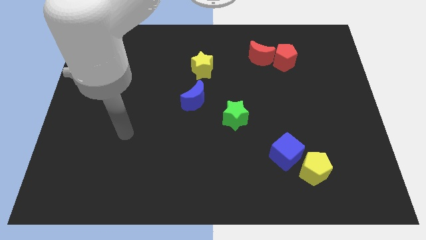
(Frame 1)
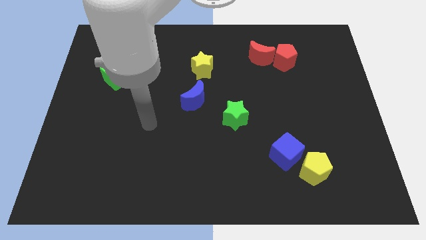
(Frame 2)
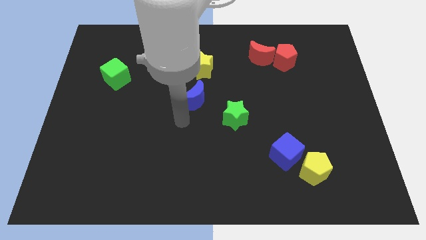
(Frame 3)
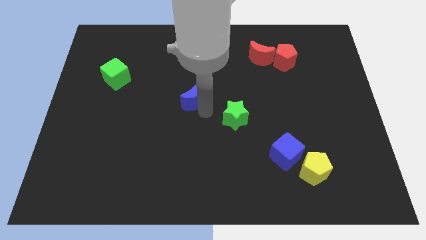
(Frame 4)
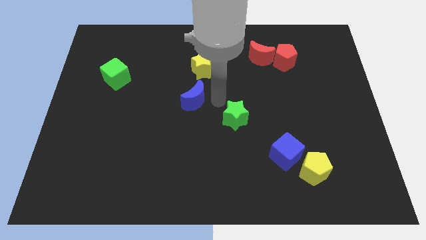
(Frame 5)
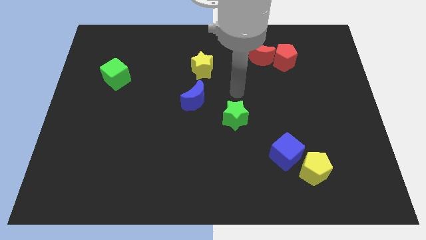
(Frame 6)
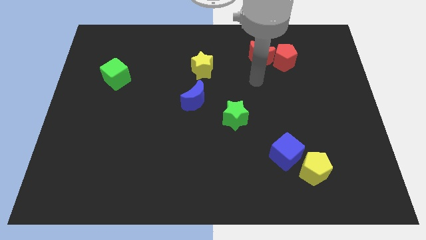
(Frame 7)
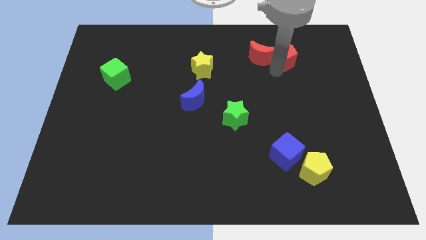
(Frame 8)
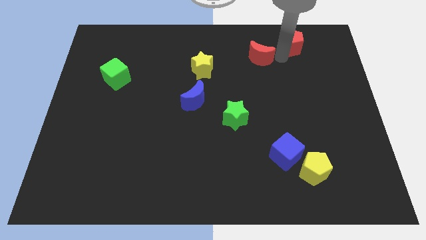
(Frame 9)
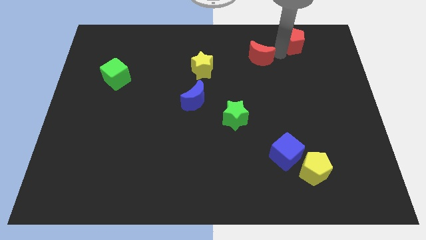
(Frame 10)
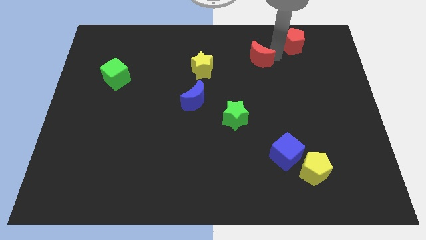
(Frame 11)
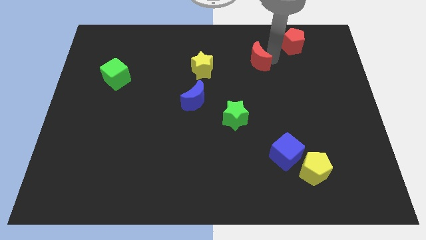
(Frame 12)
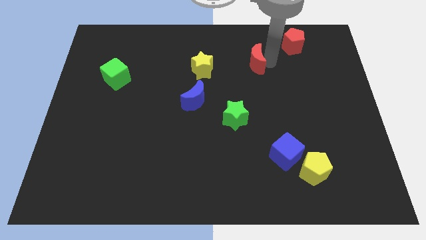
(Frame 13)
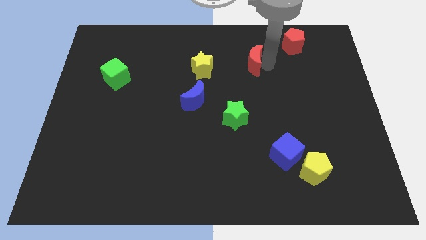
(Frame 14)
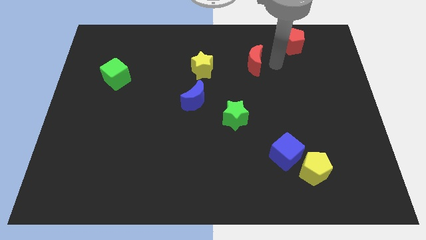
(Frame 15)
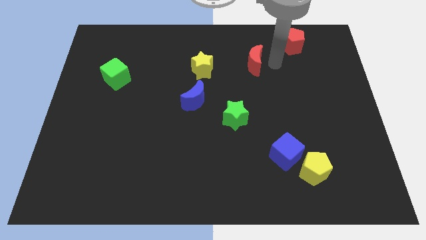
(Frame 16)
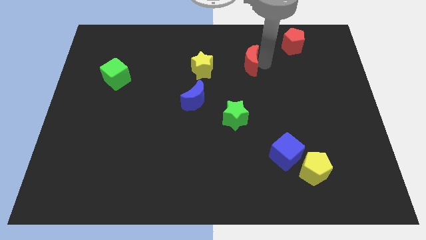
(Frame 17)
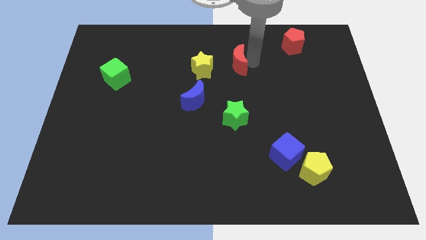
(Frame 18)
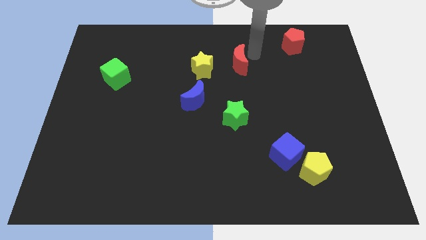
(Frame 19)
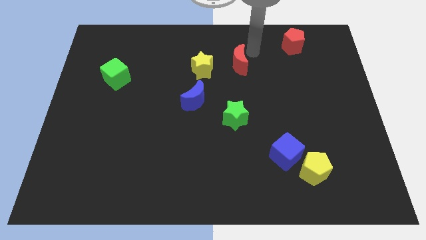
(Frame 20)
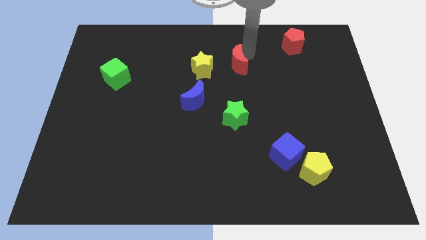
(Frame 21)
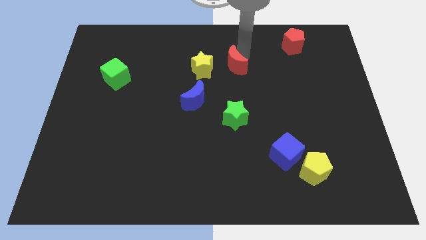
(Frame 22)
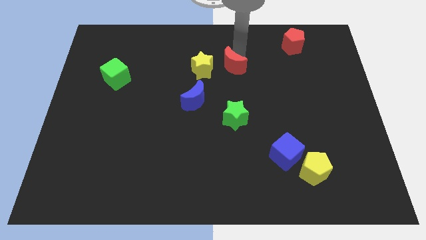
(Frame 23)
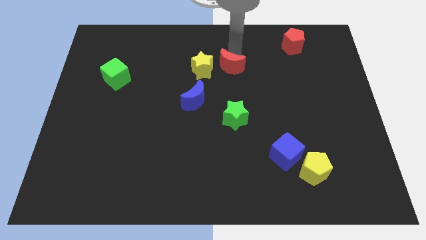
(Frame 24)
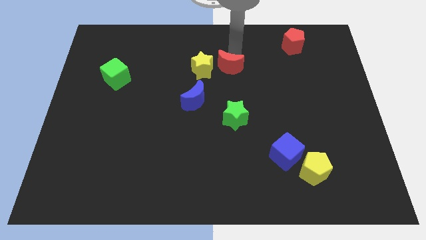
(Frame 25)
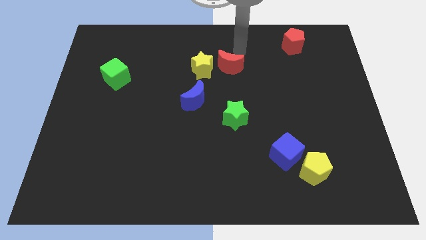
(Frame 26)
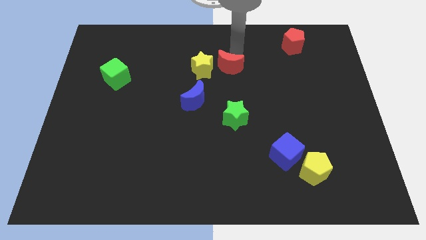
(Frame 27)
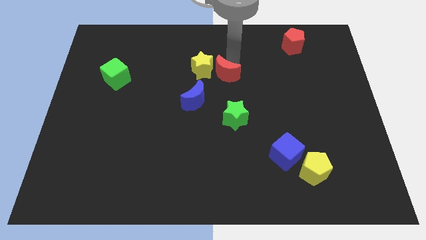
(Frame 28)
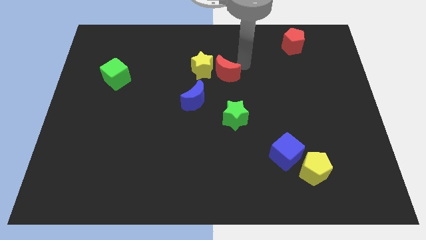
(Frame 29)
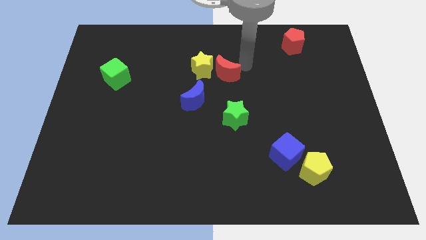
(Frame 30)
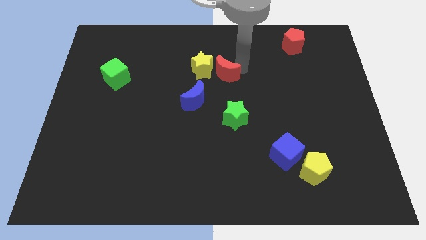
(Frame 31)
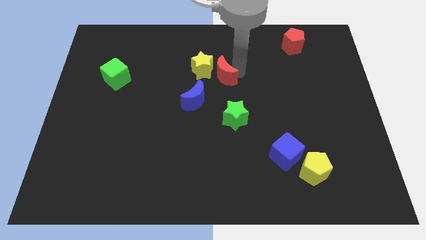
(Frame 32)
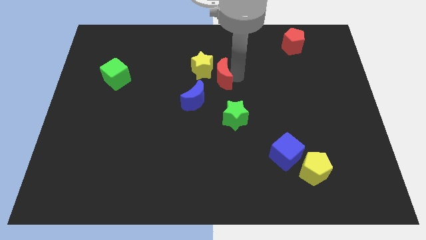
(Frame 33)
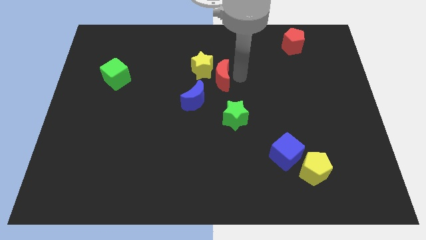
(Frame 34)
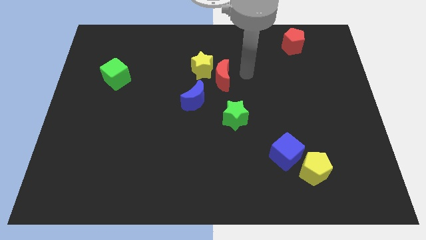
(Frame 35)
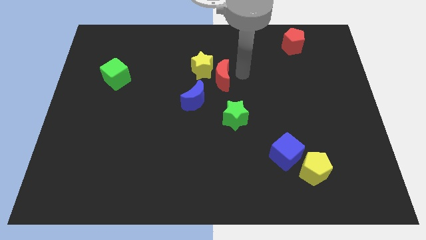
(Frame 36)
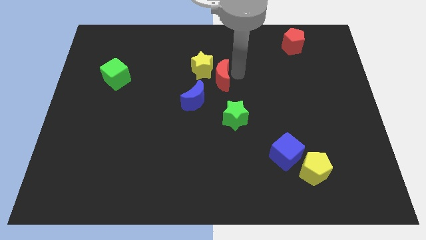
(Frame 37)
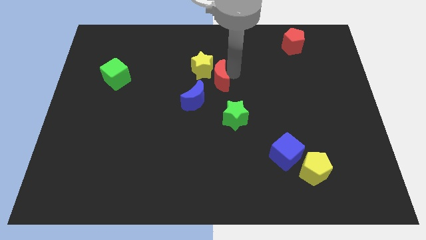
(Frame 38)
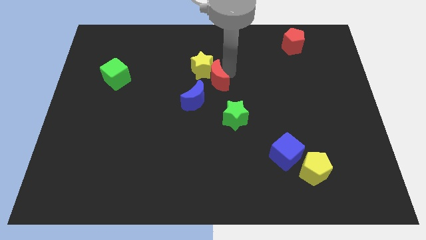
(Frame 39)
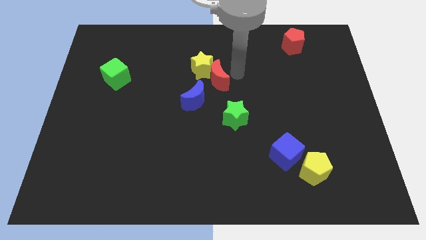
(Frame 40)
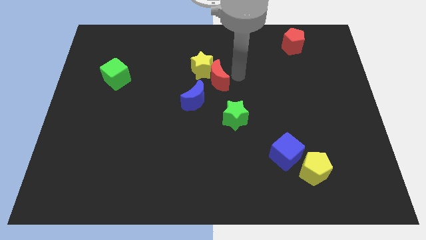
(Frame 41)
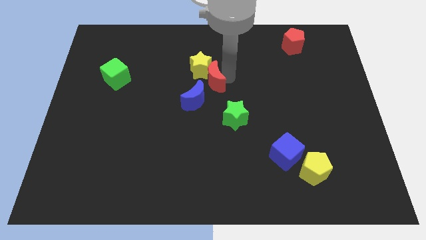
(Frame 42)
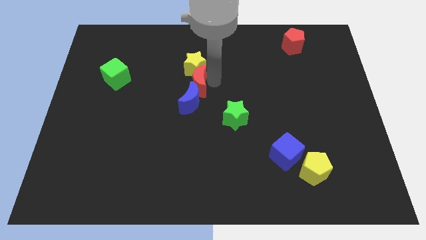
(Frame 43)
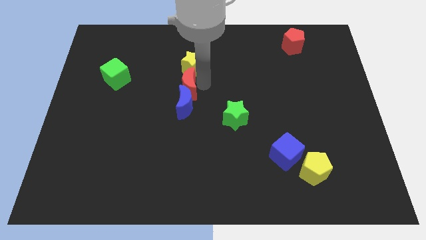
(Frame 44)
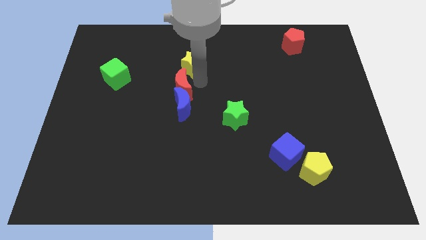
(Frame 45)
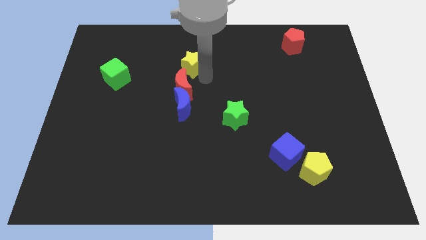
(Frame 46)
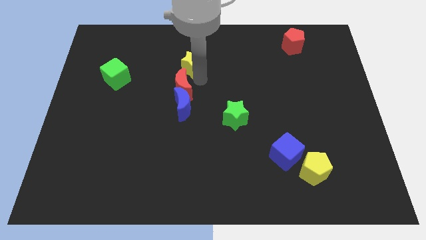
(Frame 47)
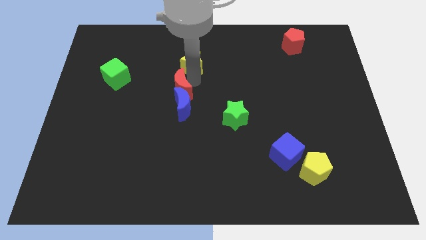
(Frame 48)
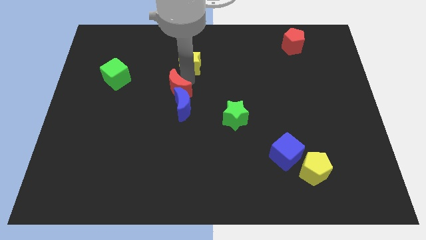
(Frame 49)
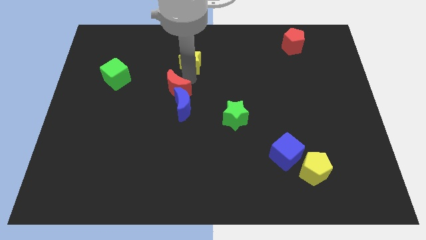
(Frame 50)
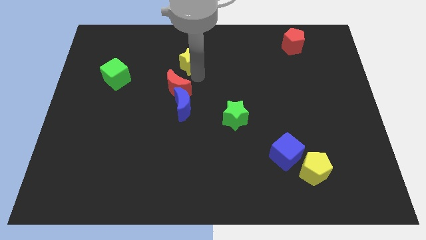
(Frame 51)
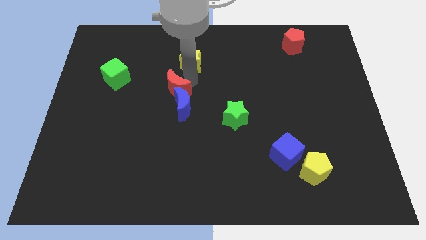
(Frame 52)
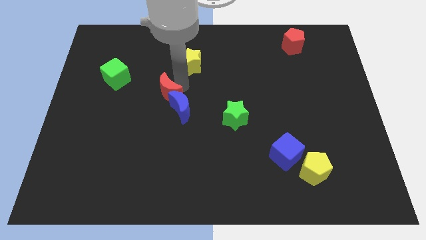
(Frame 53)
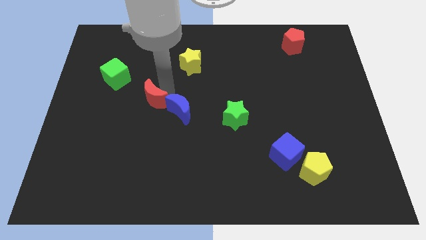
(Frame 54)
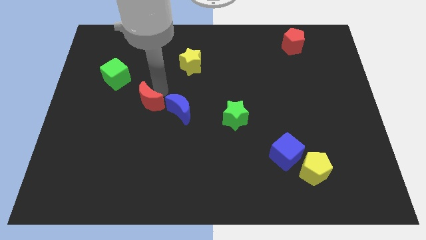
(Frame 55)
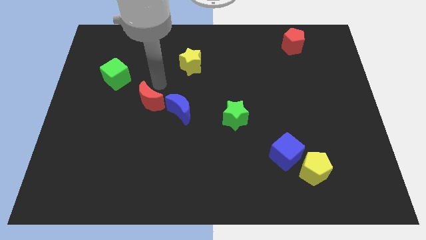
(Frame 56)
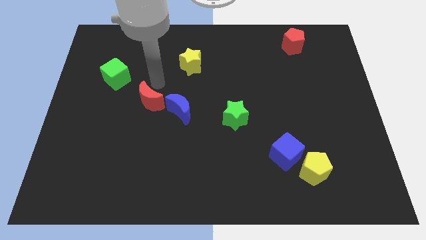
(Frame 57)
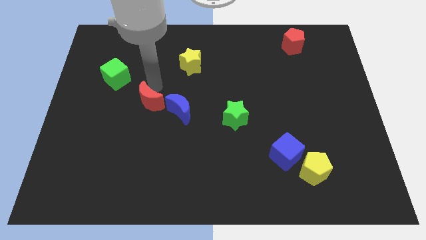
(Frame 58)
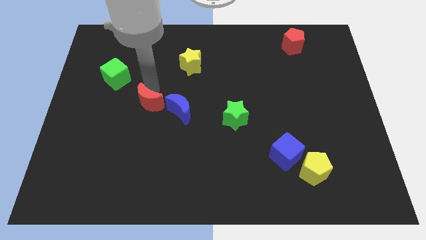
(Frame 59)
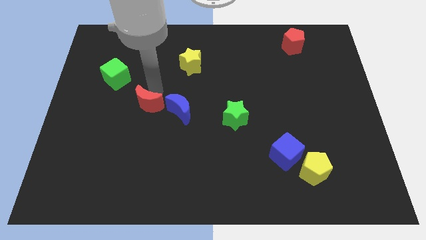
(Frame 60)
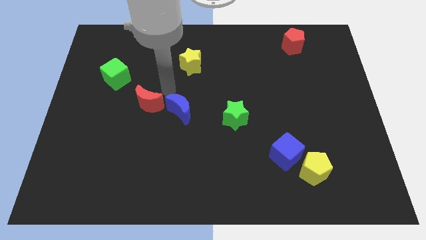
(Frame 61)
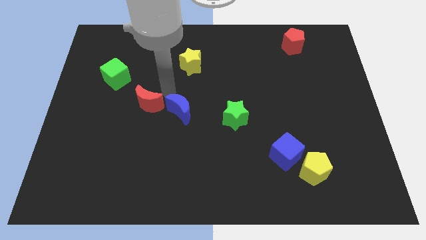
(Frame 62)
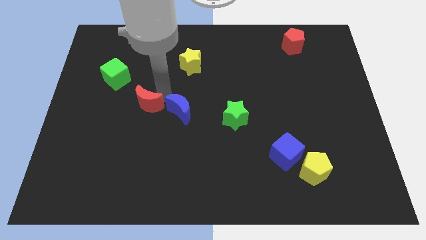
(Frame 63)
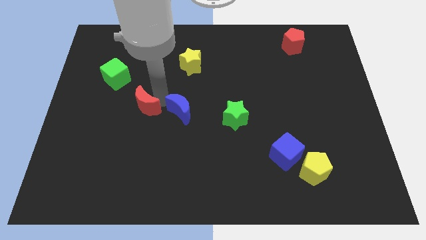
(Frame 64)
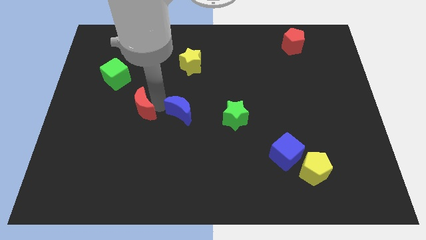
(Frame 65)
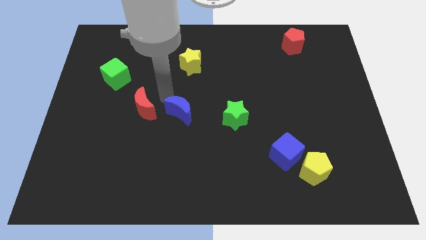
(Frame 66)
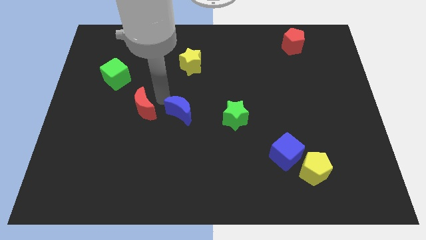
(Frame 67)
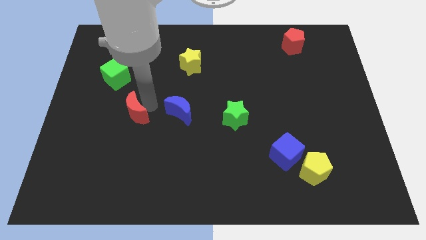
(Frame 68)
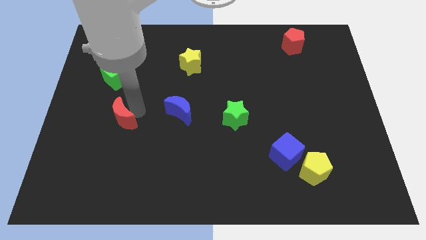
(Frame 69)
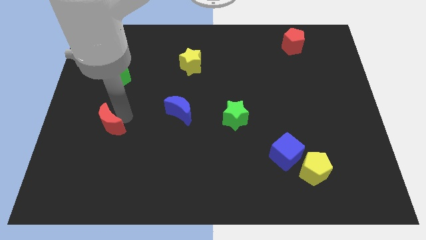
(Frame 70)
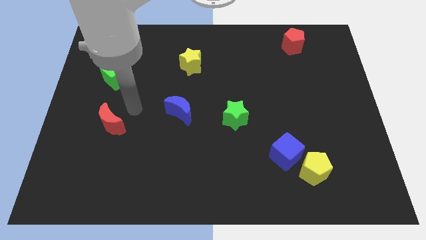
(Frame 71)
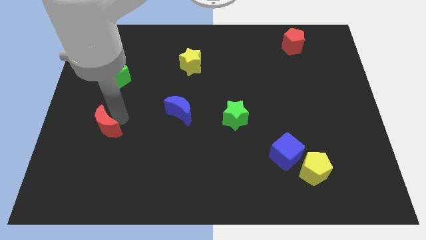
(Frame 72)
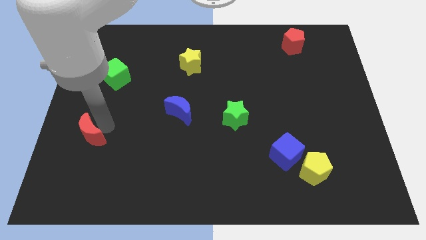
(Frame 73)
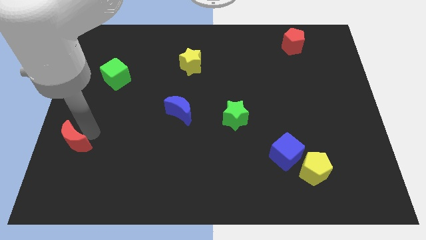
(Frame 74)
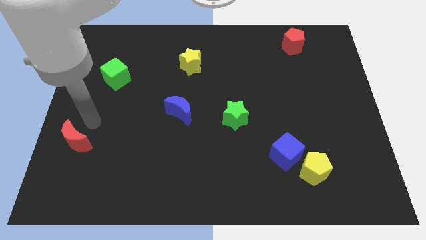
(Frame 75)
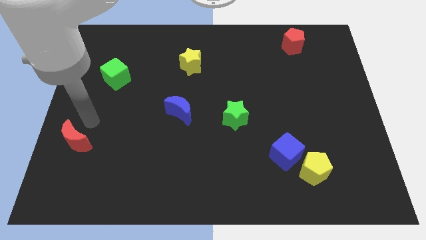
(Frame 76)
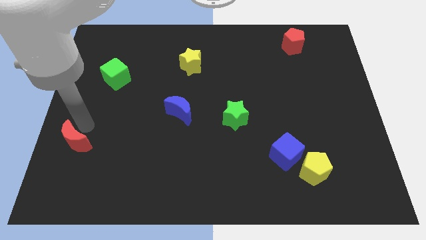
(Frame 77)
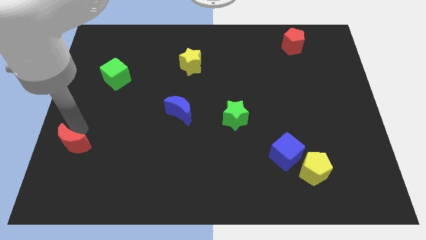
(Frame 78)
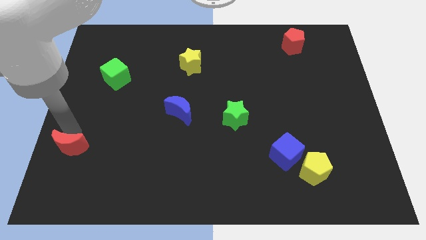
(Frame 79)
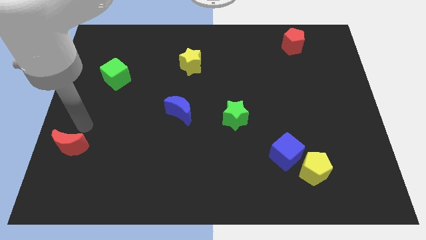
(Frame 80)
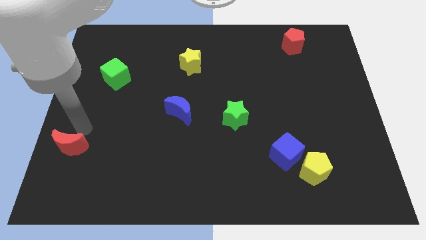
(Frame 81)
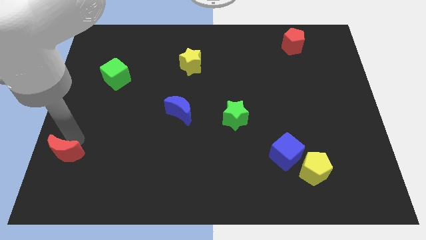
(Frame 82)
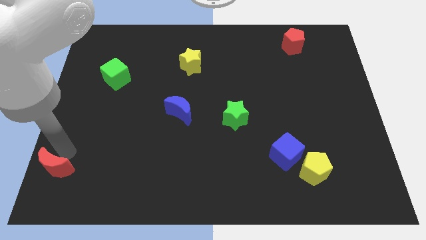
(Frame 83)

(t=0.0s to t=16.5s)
put the red moon to the bottom left
